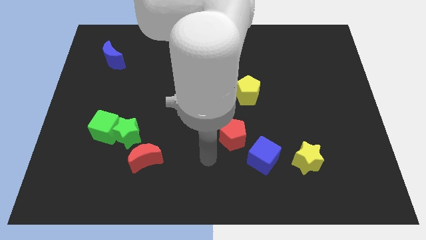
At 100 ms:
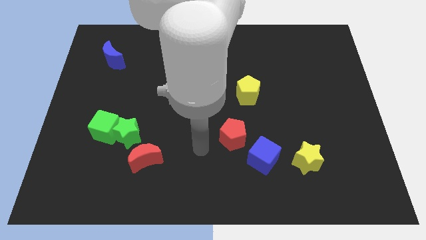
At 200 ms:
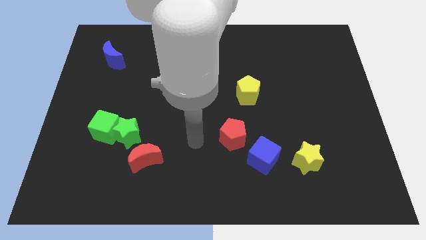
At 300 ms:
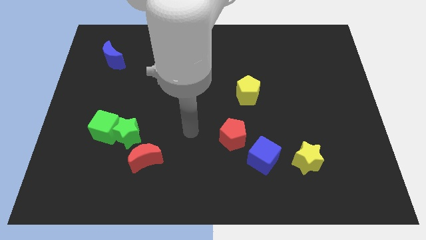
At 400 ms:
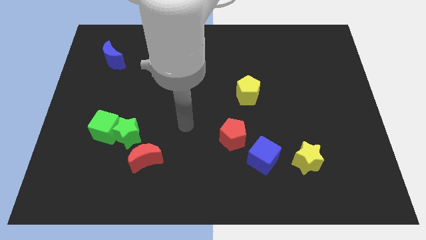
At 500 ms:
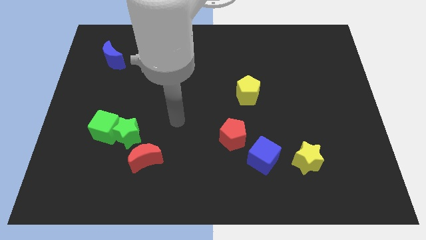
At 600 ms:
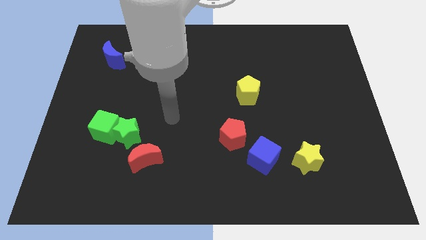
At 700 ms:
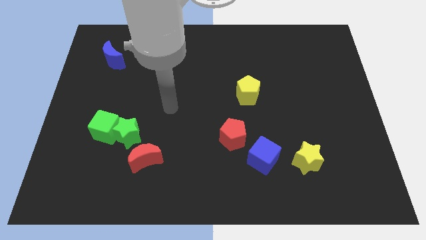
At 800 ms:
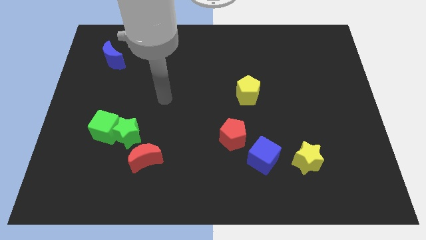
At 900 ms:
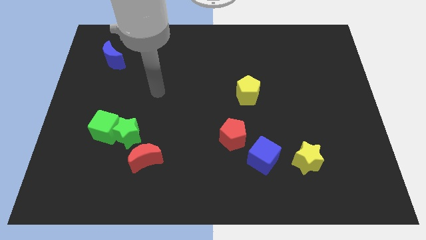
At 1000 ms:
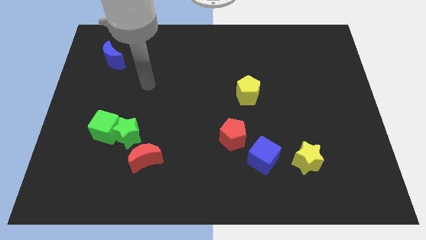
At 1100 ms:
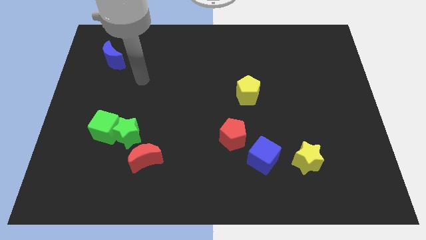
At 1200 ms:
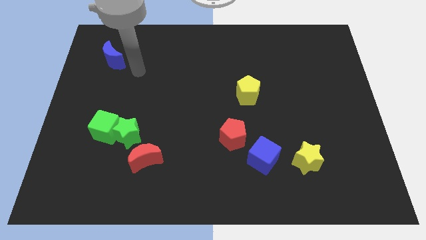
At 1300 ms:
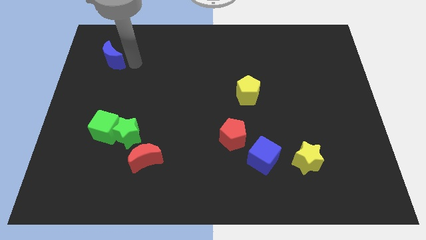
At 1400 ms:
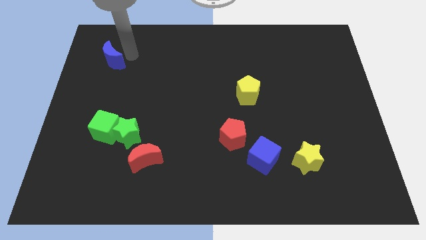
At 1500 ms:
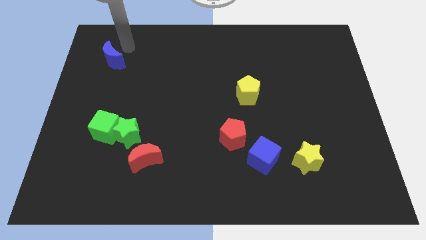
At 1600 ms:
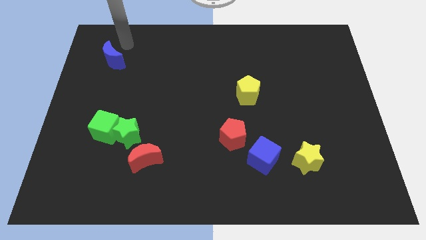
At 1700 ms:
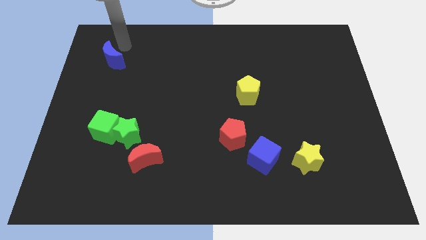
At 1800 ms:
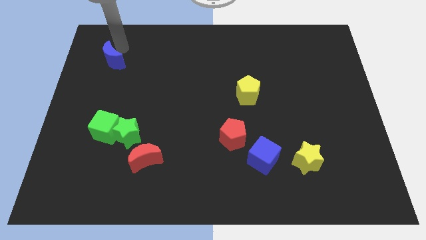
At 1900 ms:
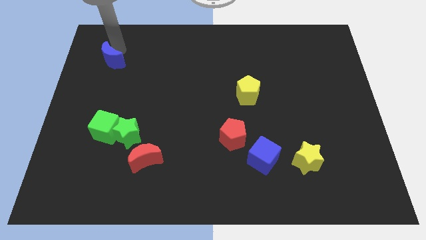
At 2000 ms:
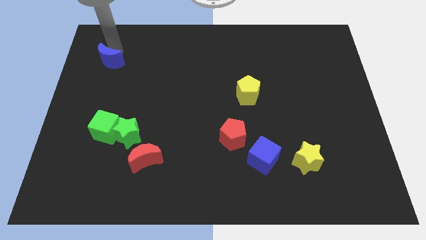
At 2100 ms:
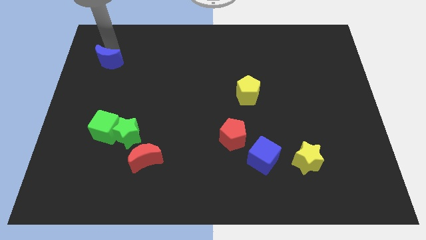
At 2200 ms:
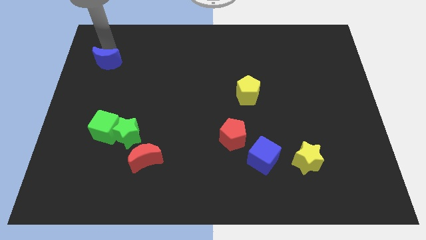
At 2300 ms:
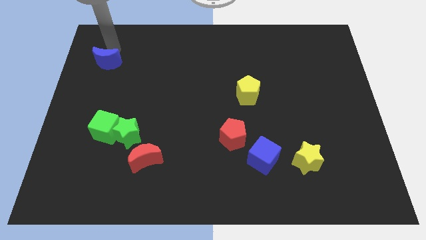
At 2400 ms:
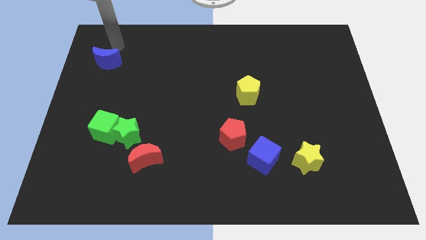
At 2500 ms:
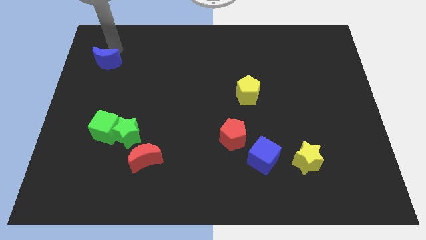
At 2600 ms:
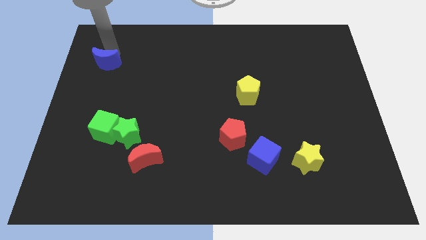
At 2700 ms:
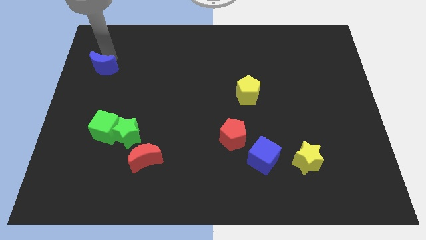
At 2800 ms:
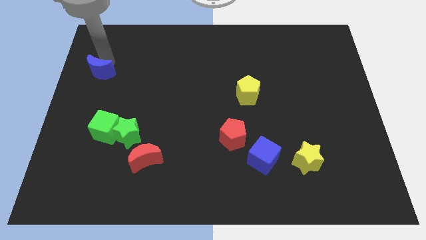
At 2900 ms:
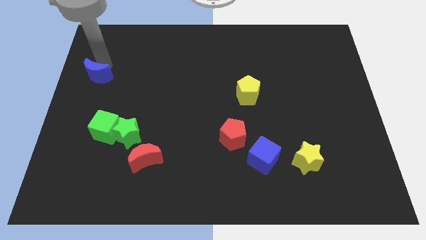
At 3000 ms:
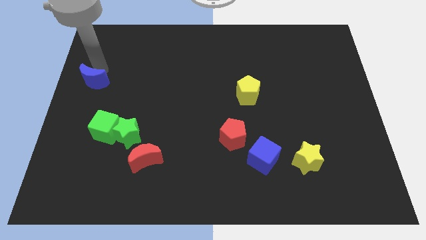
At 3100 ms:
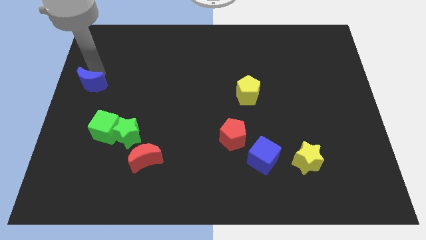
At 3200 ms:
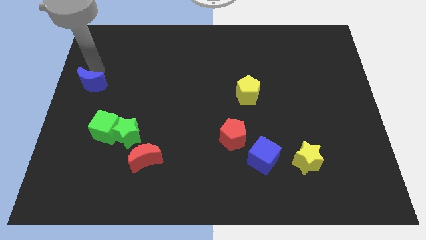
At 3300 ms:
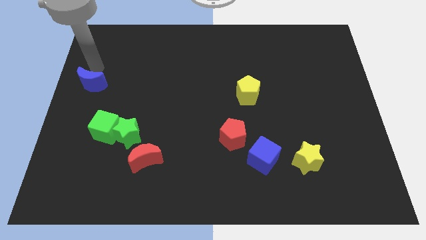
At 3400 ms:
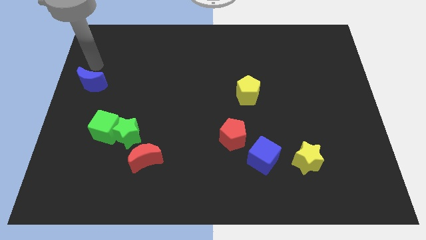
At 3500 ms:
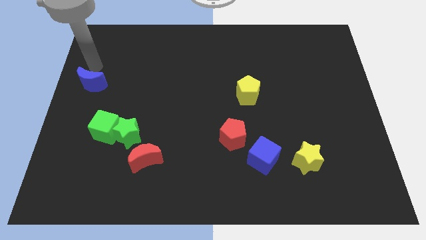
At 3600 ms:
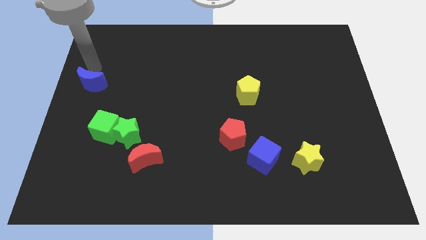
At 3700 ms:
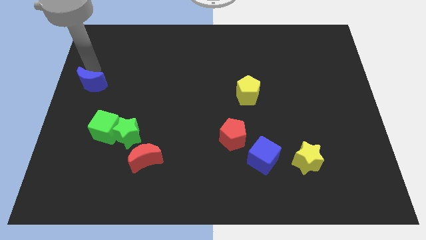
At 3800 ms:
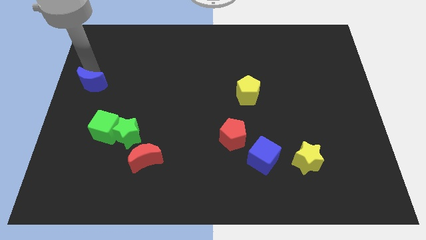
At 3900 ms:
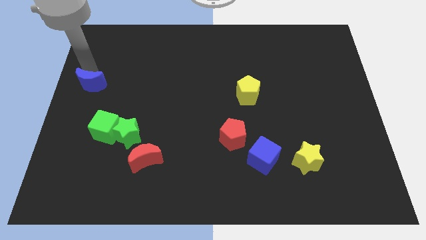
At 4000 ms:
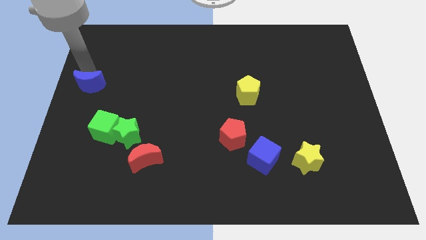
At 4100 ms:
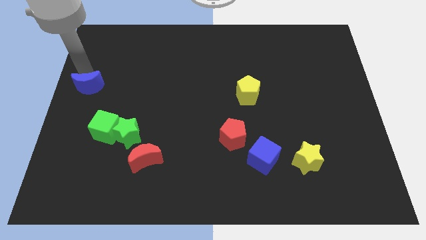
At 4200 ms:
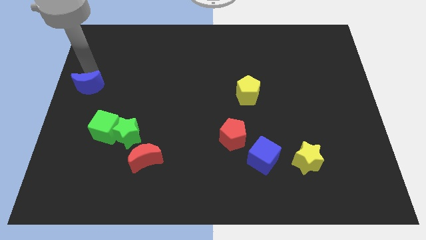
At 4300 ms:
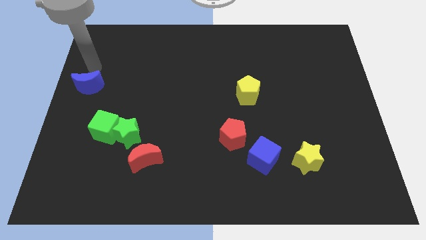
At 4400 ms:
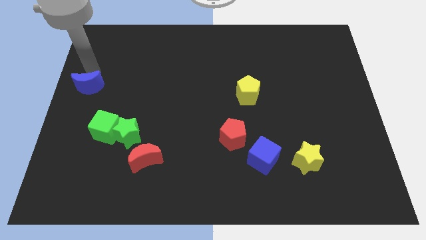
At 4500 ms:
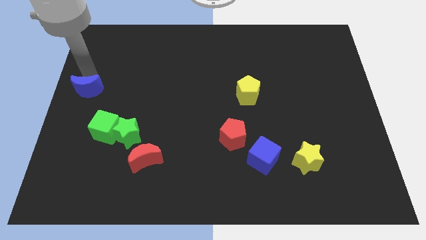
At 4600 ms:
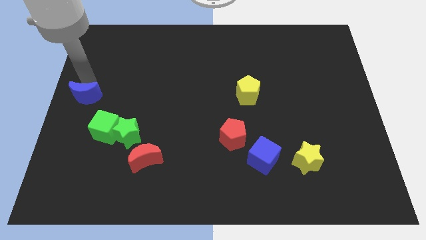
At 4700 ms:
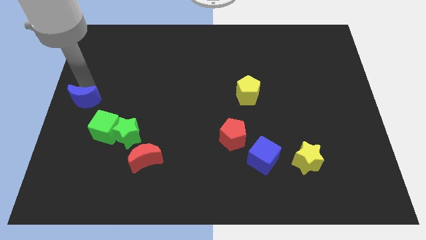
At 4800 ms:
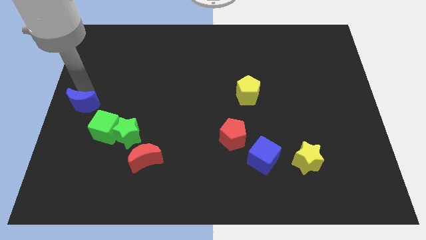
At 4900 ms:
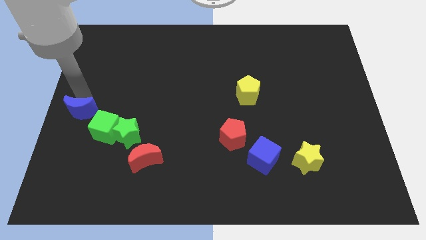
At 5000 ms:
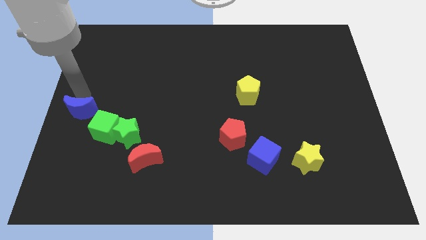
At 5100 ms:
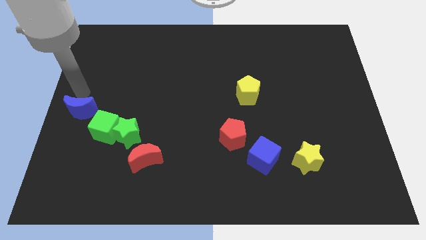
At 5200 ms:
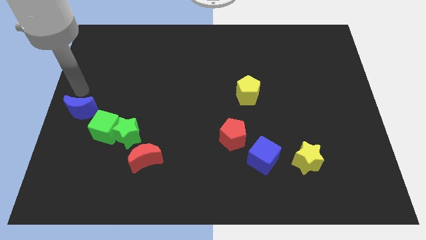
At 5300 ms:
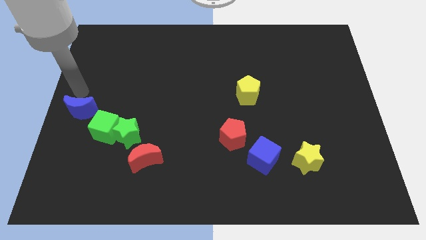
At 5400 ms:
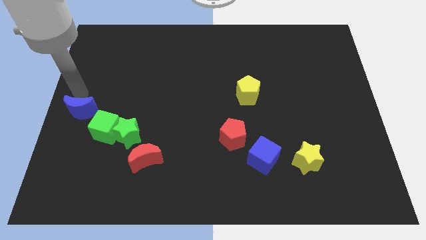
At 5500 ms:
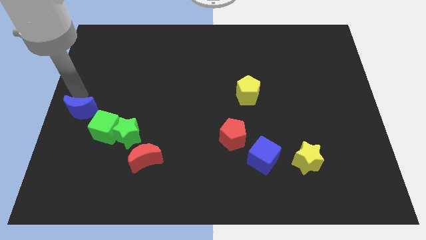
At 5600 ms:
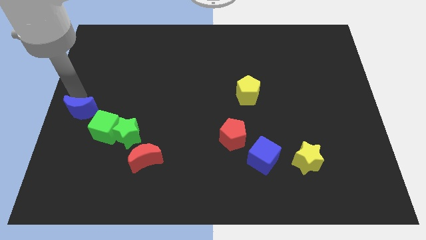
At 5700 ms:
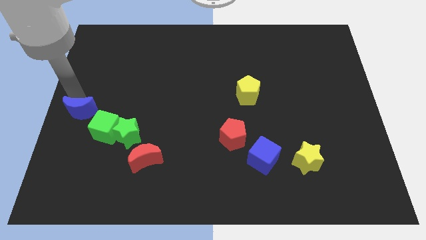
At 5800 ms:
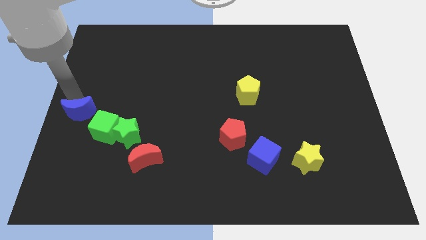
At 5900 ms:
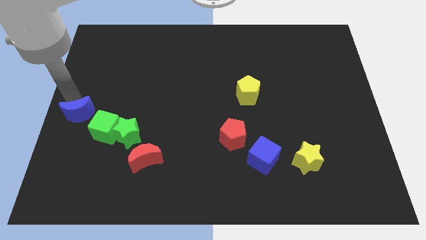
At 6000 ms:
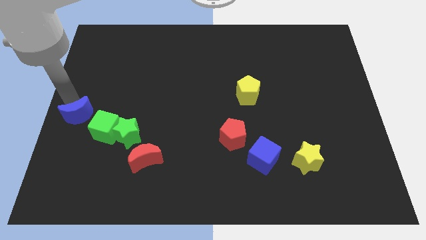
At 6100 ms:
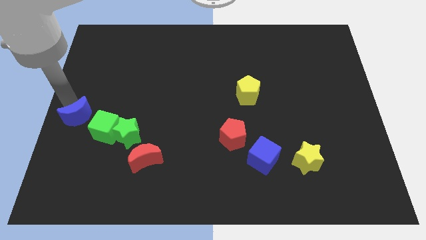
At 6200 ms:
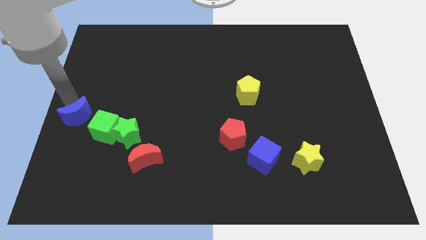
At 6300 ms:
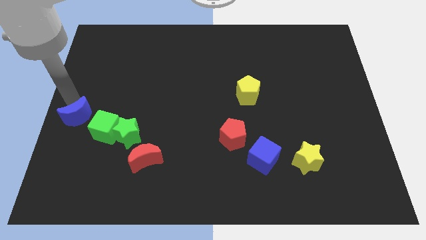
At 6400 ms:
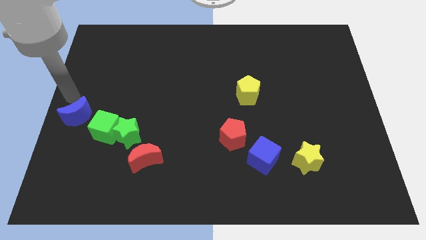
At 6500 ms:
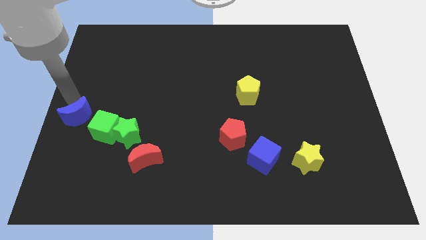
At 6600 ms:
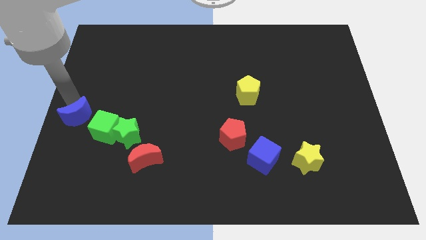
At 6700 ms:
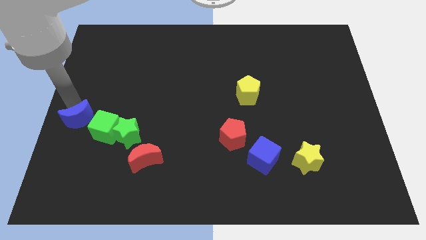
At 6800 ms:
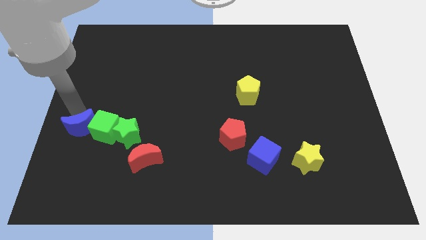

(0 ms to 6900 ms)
slide the blue moon downwards

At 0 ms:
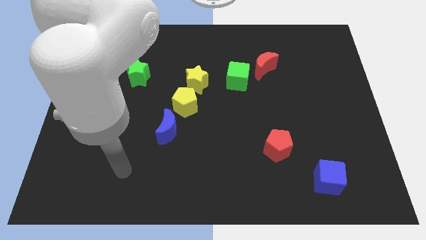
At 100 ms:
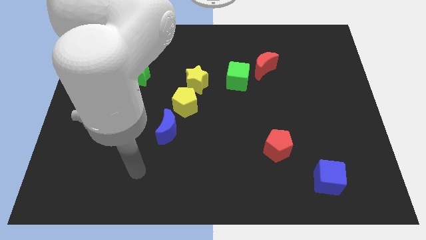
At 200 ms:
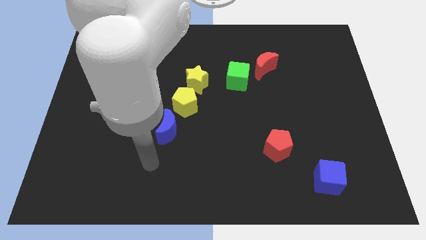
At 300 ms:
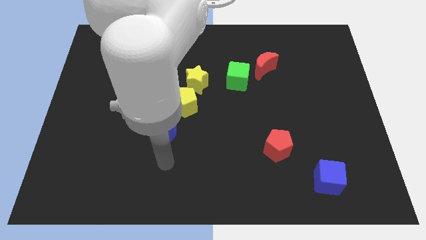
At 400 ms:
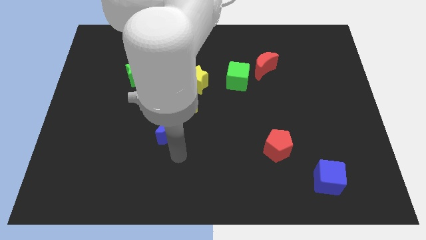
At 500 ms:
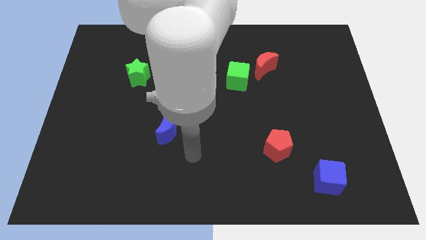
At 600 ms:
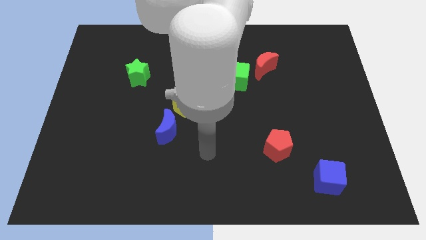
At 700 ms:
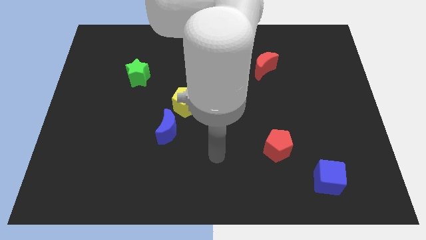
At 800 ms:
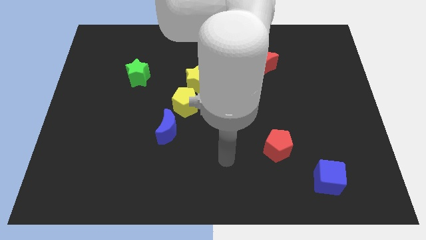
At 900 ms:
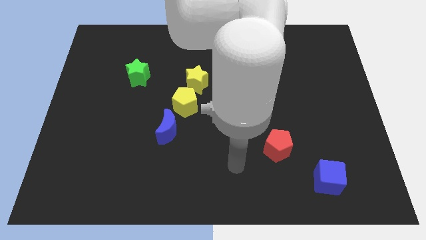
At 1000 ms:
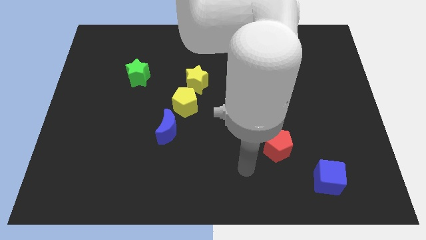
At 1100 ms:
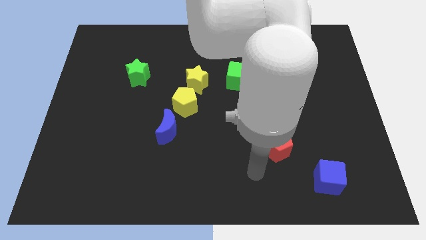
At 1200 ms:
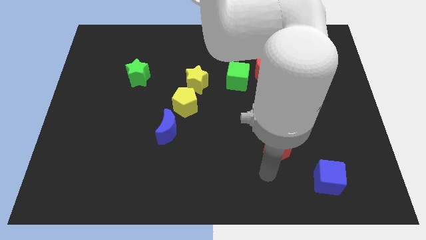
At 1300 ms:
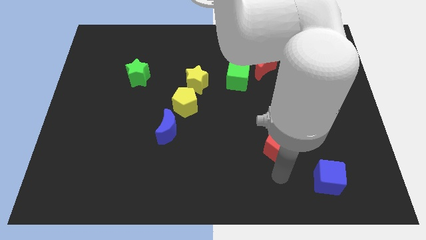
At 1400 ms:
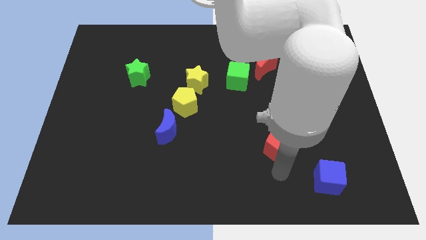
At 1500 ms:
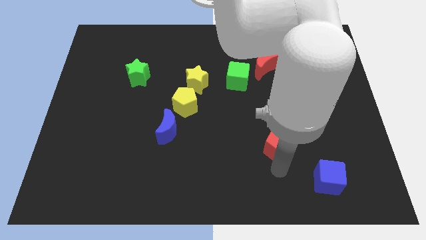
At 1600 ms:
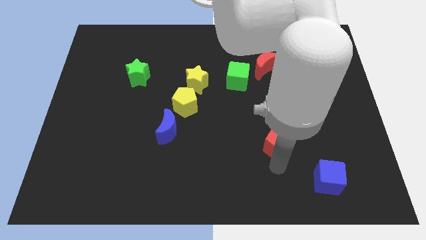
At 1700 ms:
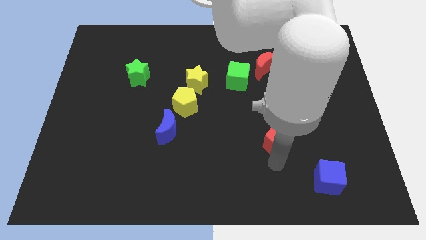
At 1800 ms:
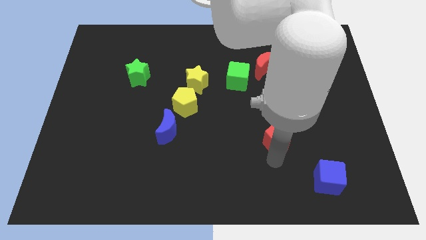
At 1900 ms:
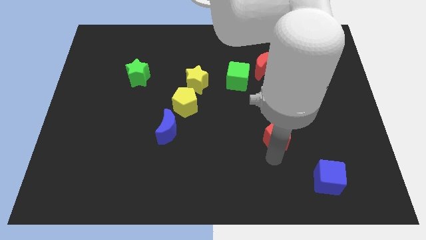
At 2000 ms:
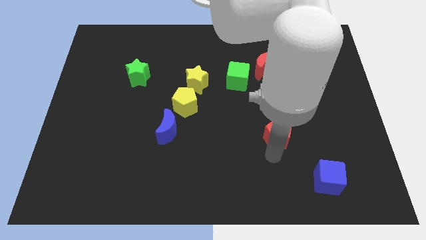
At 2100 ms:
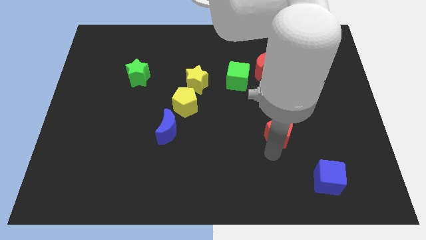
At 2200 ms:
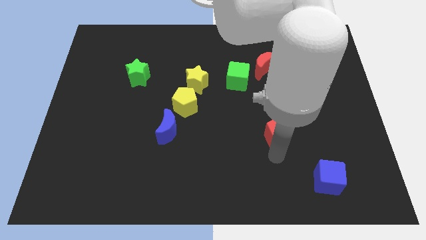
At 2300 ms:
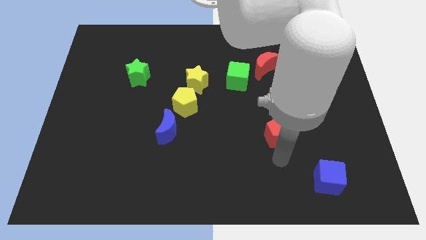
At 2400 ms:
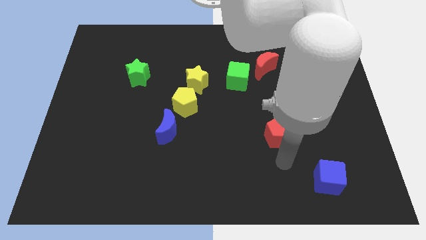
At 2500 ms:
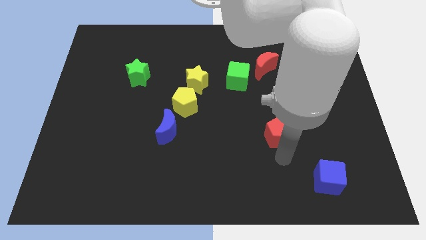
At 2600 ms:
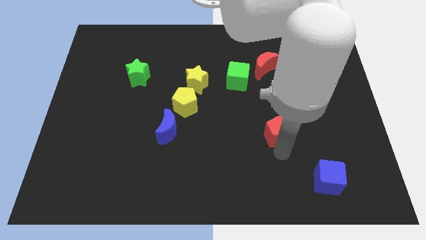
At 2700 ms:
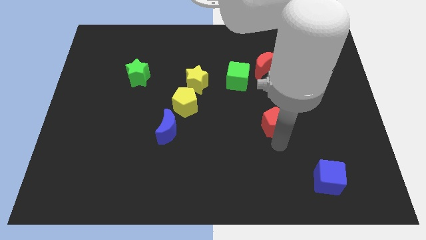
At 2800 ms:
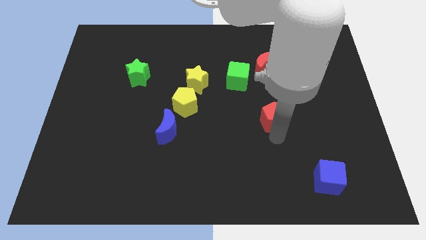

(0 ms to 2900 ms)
push the red pentagon a little up
